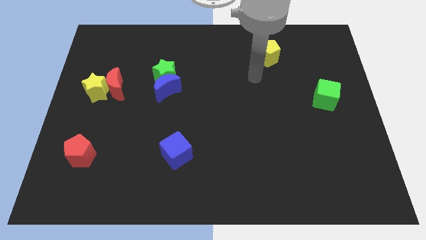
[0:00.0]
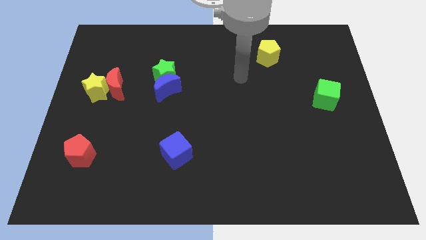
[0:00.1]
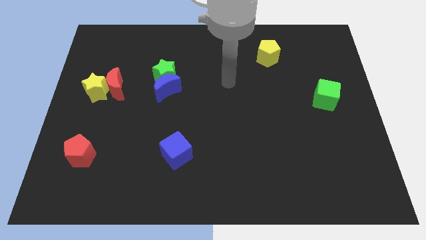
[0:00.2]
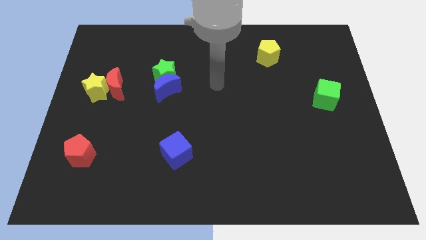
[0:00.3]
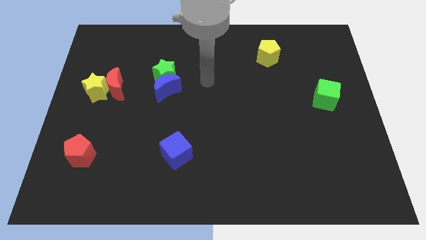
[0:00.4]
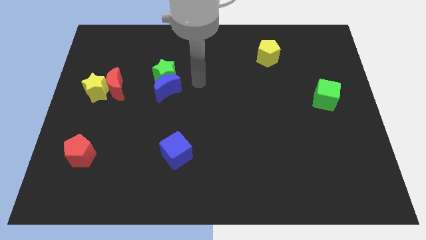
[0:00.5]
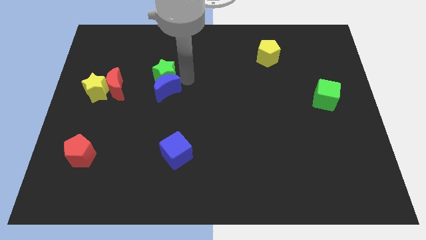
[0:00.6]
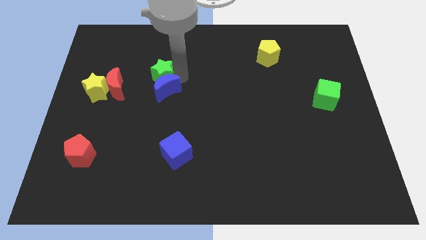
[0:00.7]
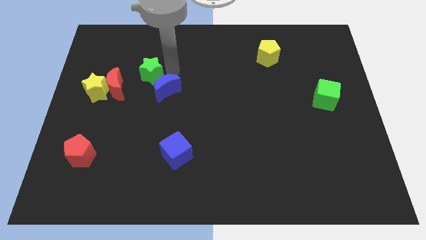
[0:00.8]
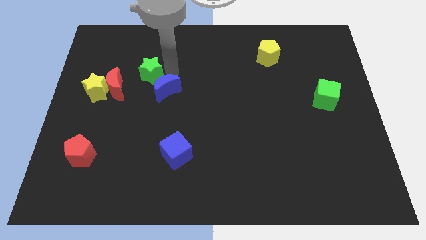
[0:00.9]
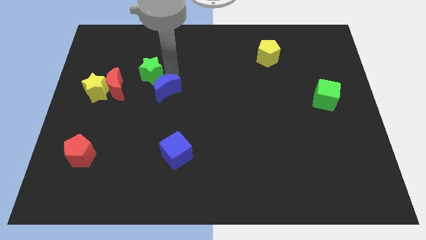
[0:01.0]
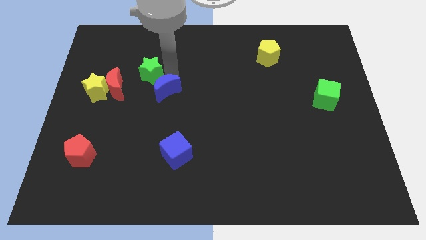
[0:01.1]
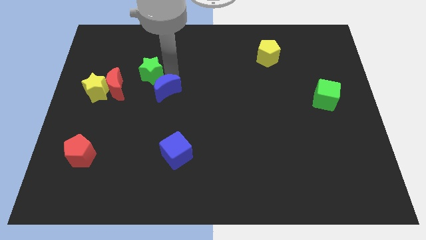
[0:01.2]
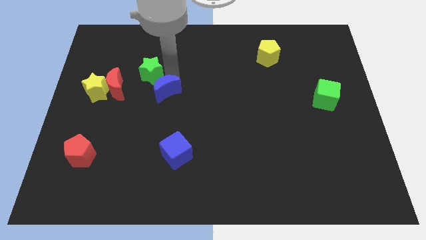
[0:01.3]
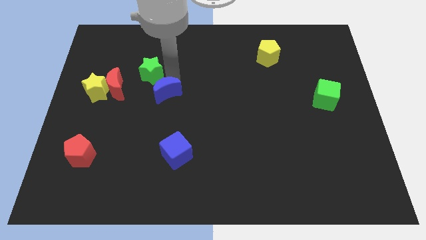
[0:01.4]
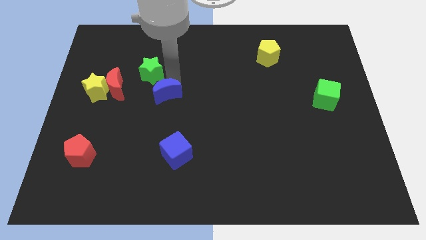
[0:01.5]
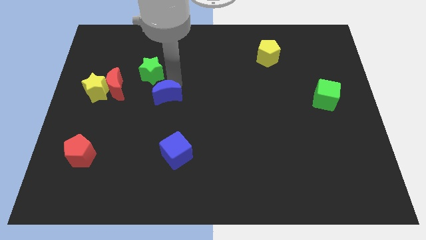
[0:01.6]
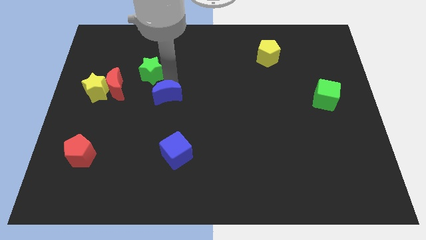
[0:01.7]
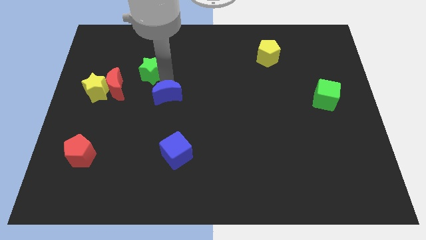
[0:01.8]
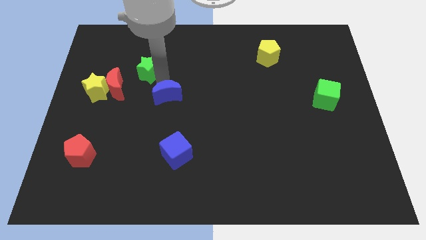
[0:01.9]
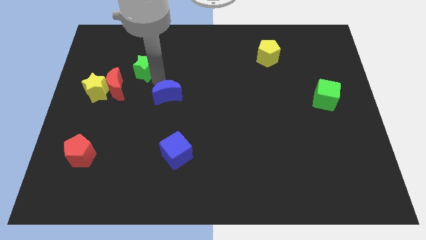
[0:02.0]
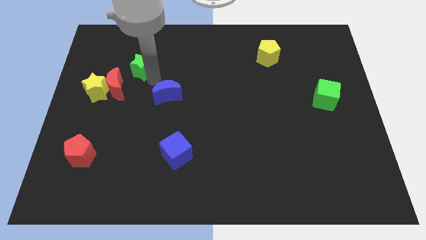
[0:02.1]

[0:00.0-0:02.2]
move the blue moon away from the green star

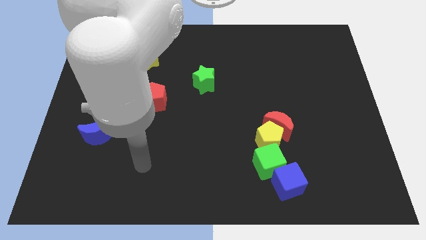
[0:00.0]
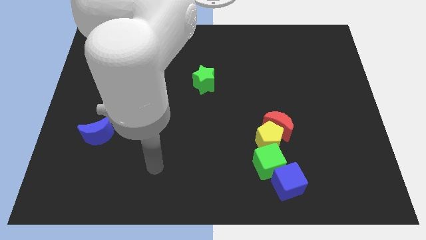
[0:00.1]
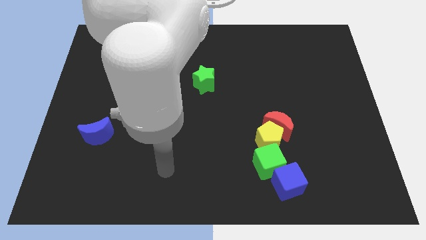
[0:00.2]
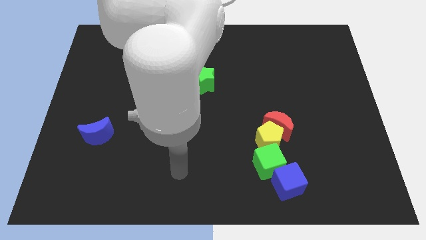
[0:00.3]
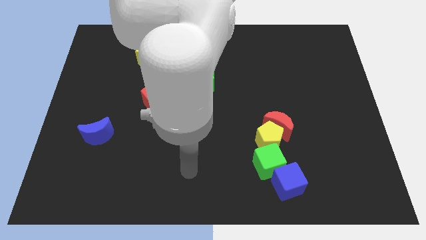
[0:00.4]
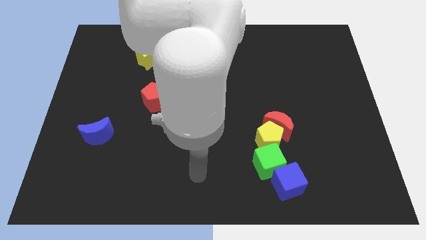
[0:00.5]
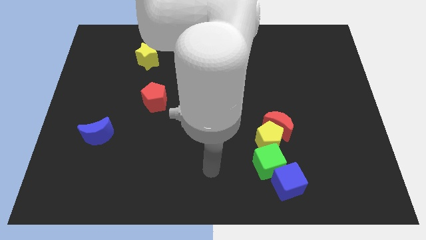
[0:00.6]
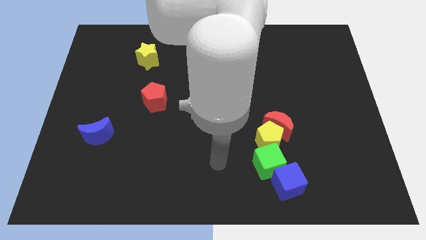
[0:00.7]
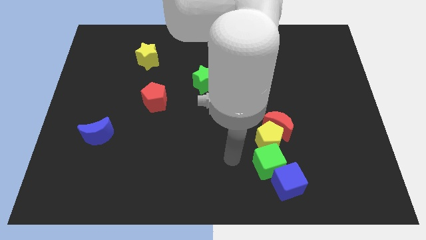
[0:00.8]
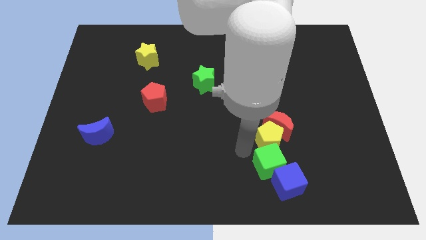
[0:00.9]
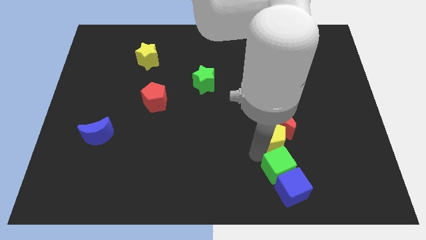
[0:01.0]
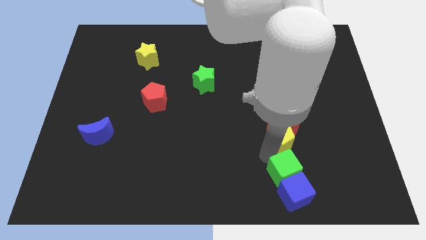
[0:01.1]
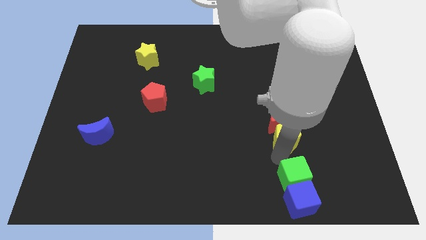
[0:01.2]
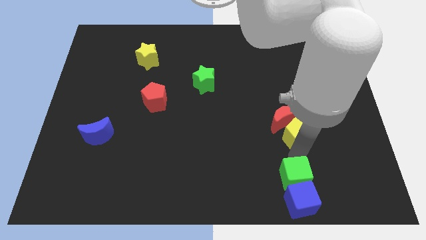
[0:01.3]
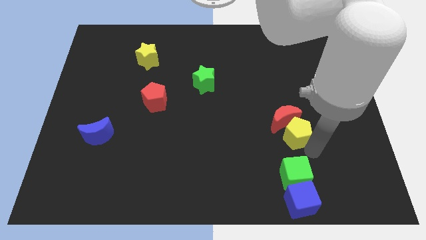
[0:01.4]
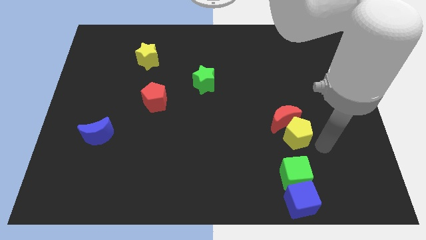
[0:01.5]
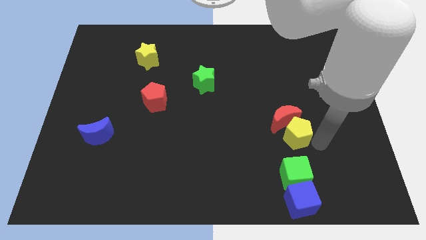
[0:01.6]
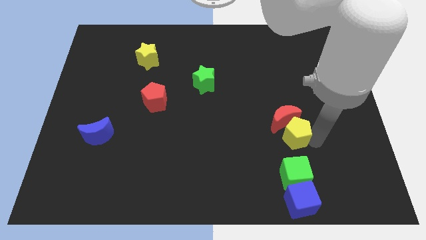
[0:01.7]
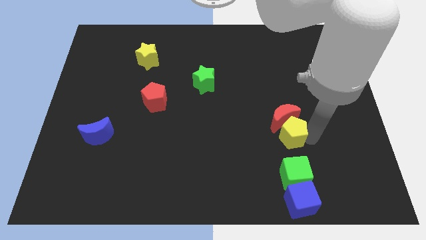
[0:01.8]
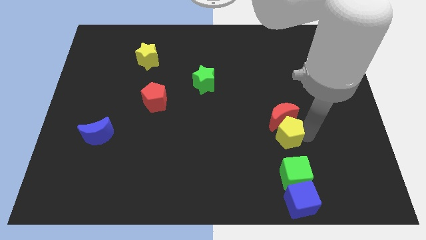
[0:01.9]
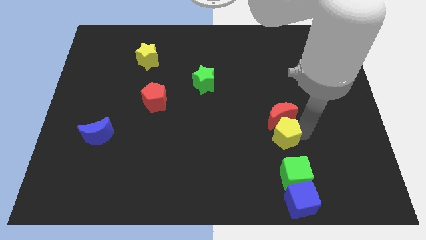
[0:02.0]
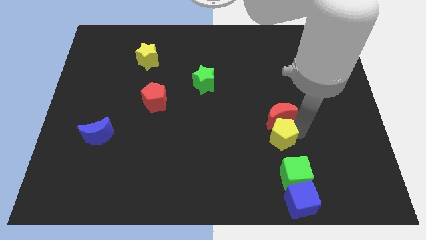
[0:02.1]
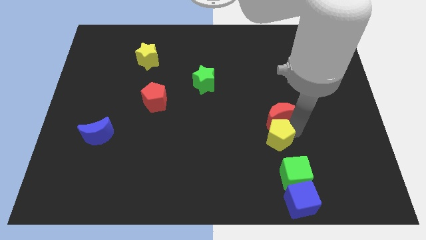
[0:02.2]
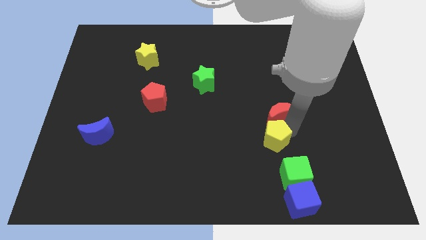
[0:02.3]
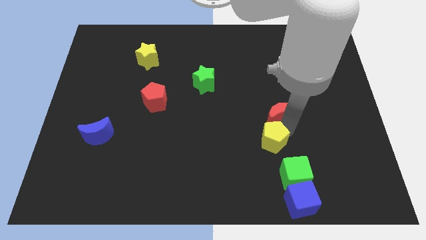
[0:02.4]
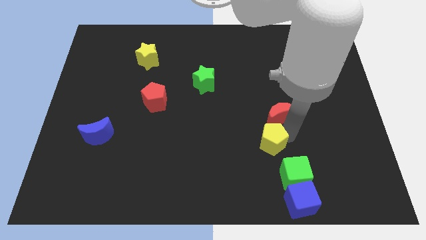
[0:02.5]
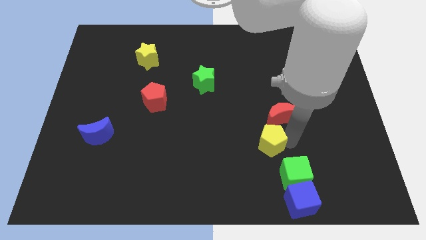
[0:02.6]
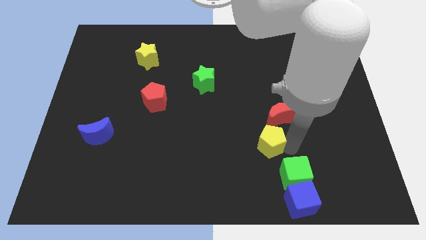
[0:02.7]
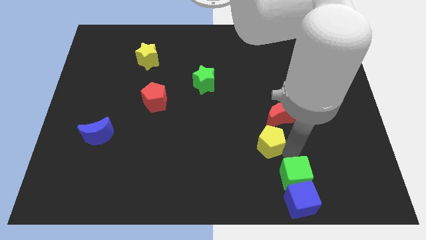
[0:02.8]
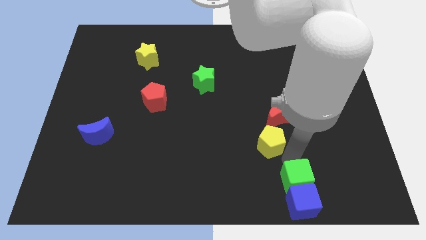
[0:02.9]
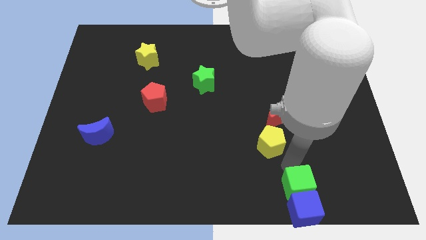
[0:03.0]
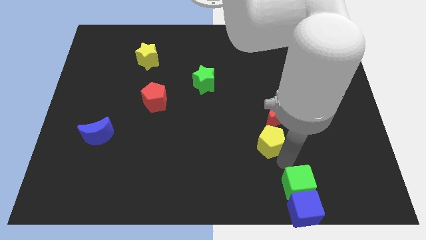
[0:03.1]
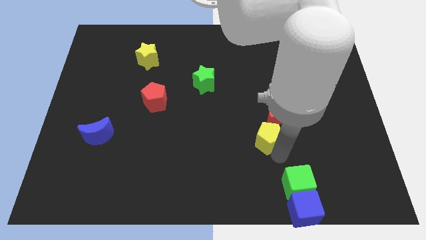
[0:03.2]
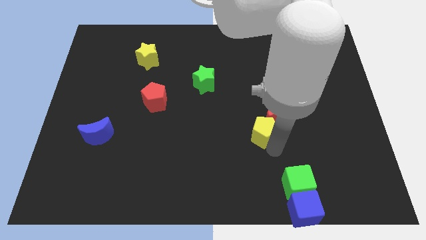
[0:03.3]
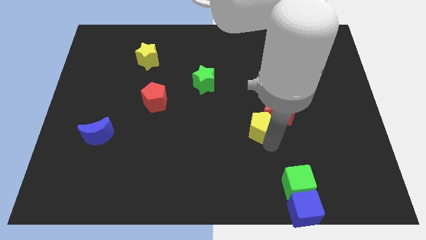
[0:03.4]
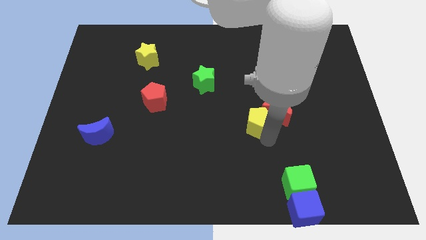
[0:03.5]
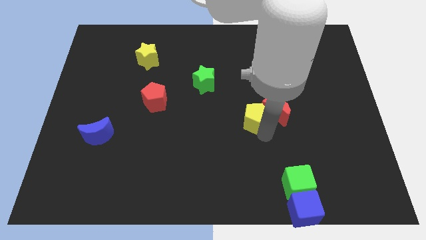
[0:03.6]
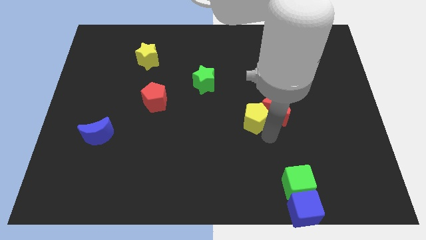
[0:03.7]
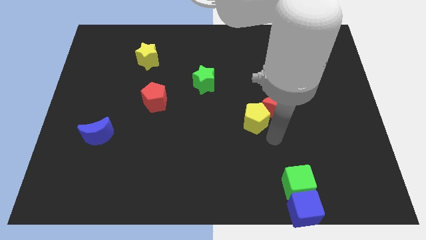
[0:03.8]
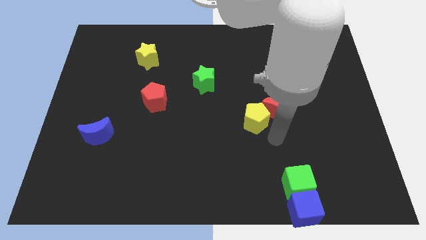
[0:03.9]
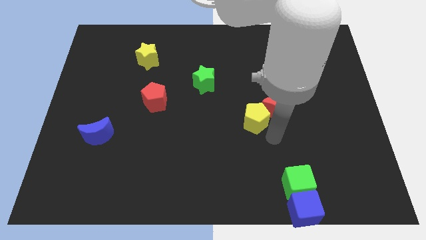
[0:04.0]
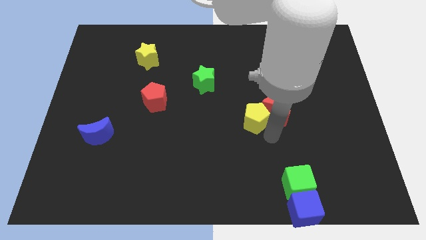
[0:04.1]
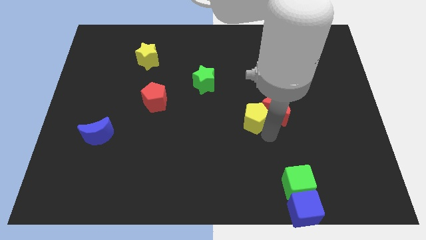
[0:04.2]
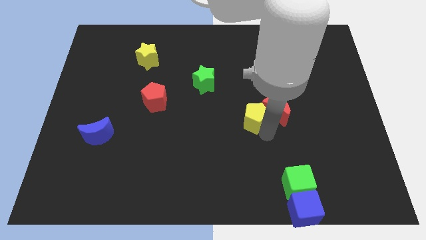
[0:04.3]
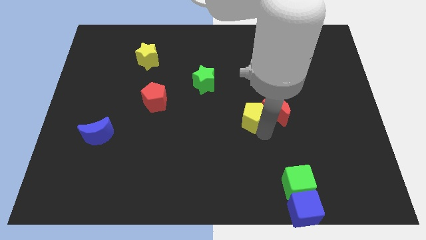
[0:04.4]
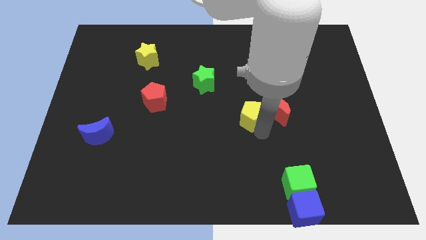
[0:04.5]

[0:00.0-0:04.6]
move the yellow pentagon away from the red moon and green cube

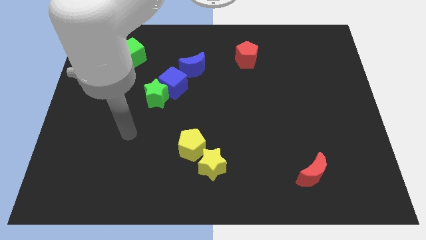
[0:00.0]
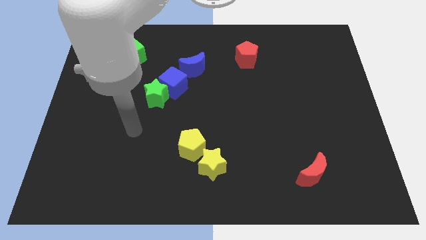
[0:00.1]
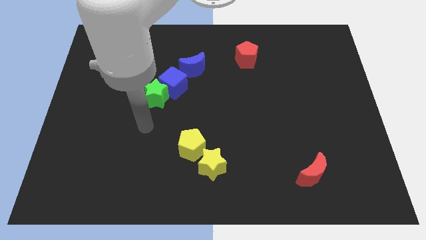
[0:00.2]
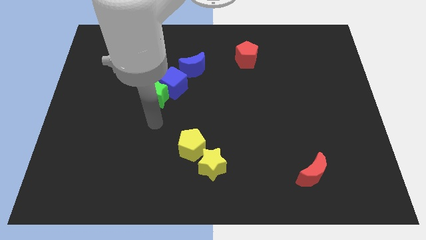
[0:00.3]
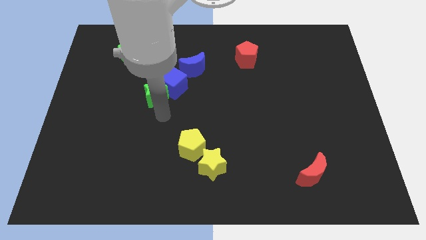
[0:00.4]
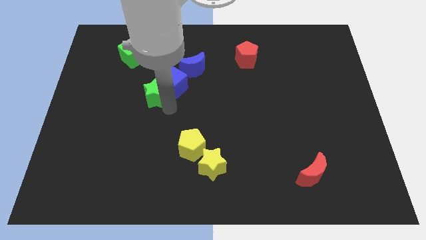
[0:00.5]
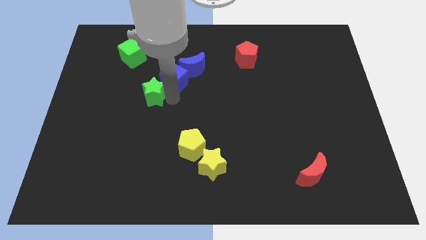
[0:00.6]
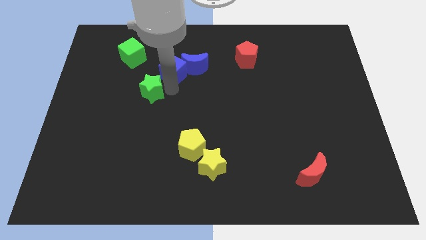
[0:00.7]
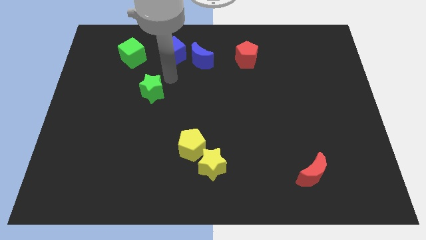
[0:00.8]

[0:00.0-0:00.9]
separate the green star from the blue cube

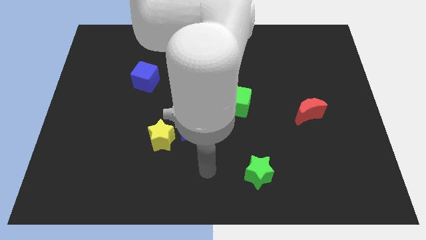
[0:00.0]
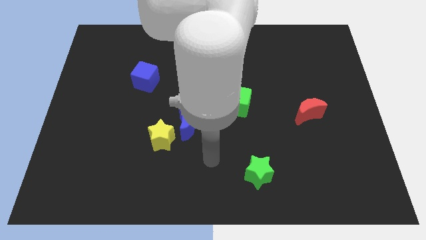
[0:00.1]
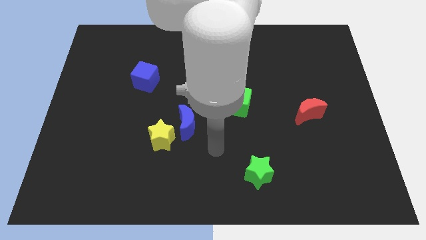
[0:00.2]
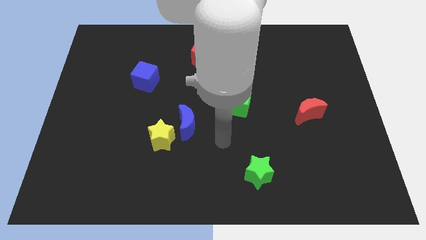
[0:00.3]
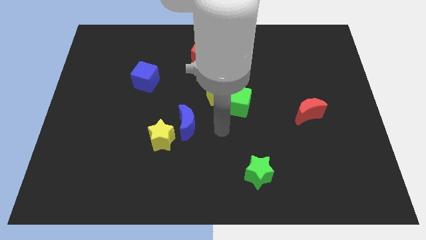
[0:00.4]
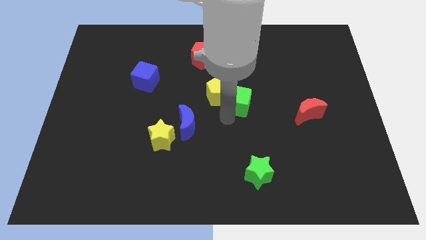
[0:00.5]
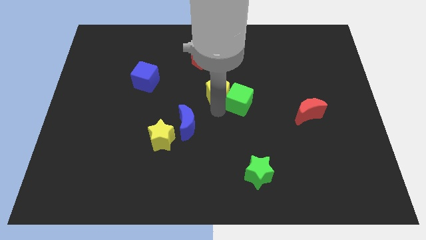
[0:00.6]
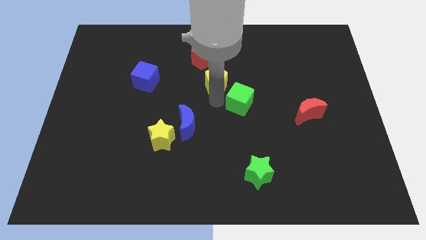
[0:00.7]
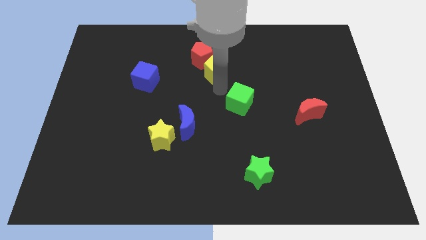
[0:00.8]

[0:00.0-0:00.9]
pull the green cube apart from the yellow pentagon

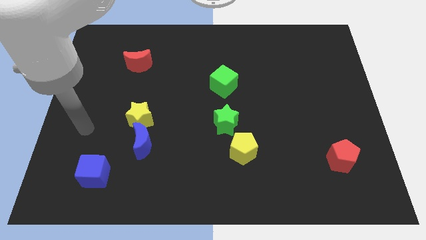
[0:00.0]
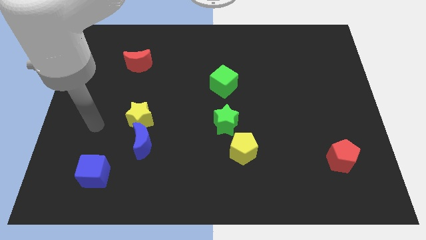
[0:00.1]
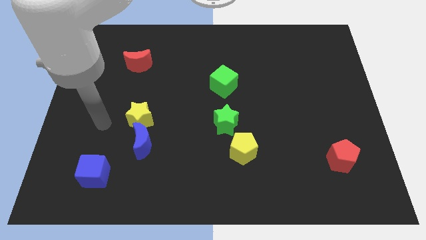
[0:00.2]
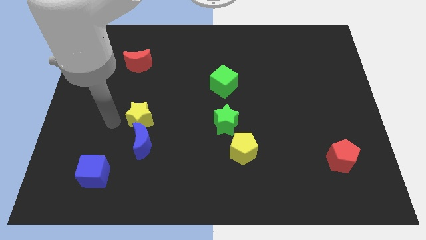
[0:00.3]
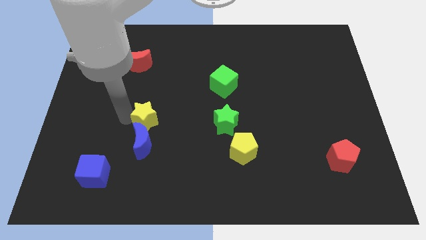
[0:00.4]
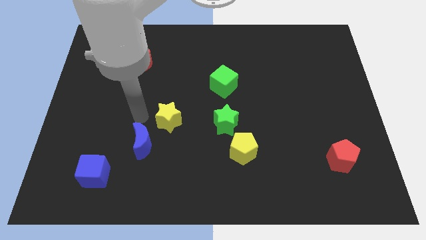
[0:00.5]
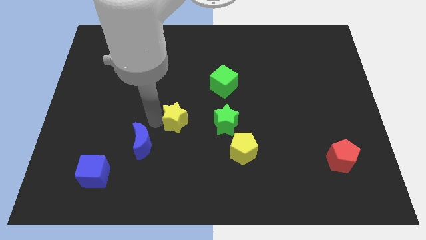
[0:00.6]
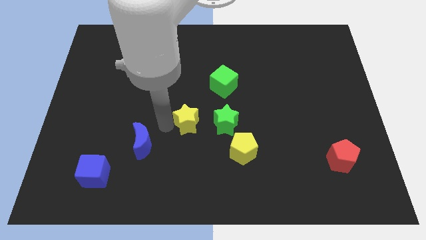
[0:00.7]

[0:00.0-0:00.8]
move the blue moon away from the yellow star
